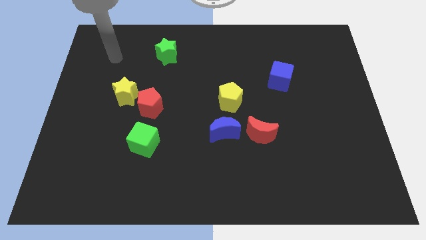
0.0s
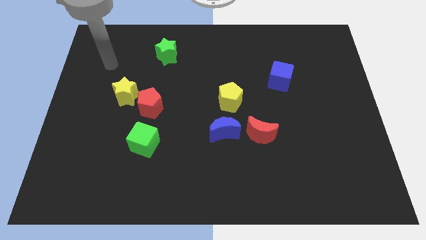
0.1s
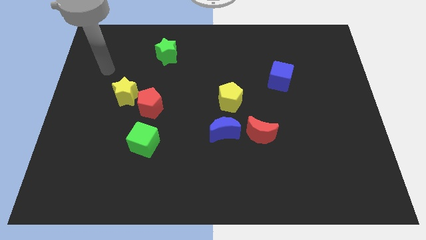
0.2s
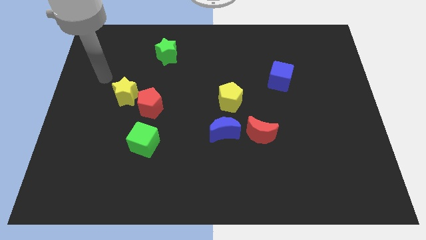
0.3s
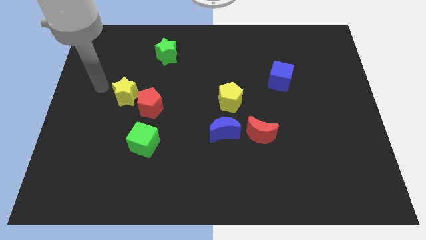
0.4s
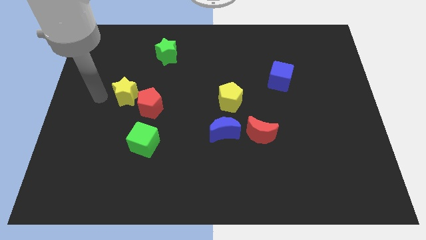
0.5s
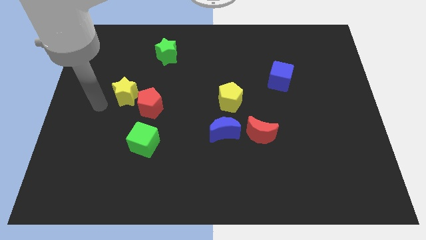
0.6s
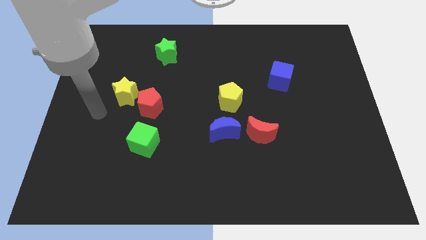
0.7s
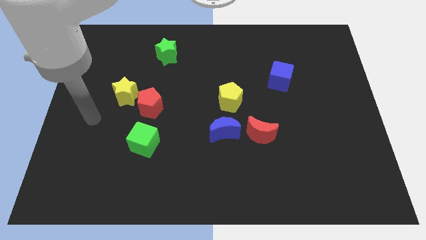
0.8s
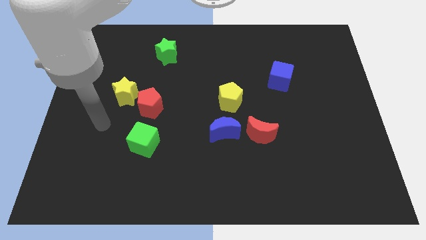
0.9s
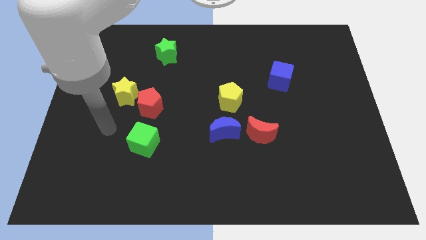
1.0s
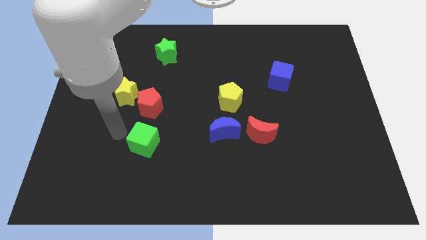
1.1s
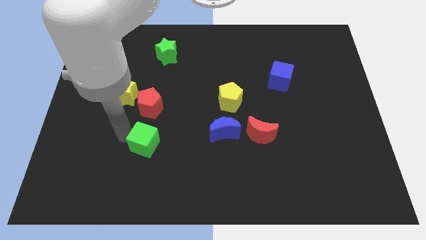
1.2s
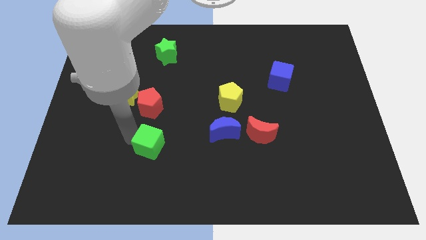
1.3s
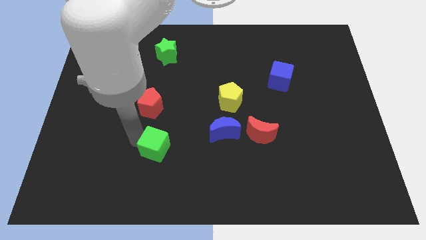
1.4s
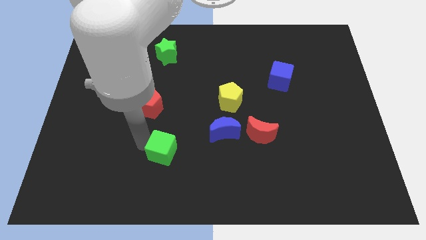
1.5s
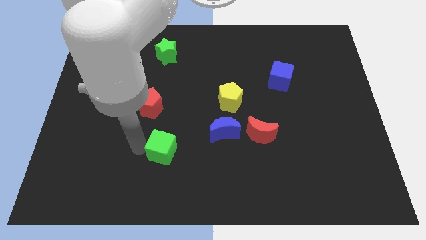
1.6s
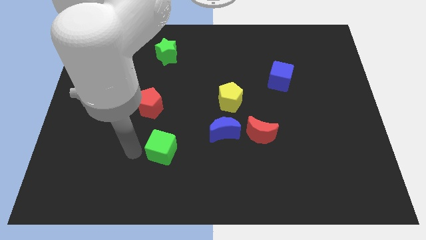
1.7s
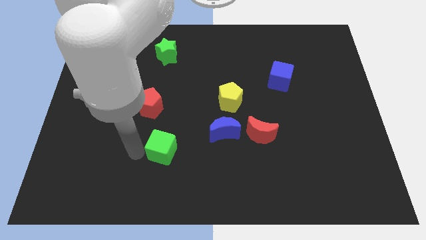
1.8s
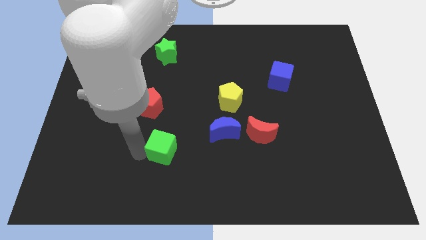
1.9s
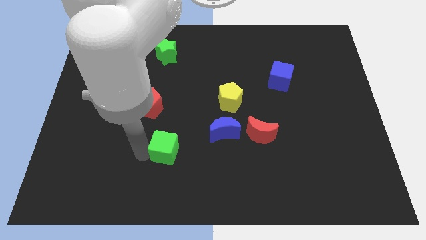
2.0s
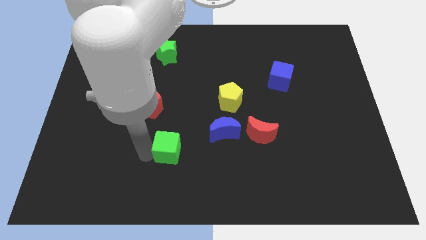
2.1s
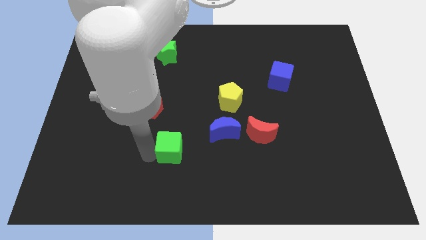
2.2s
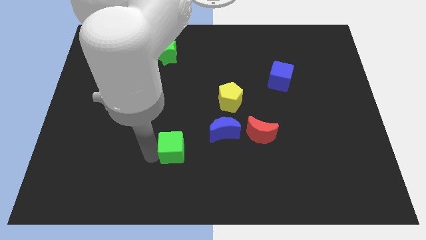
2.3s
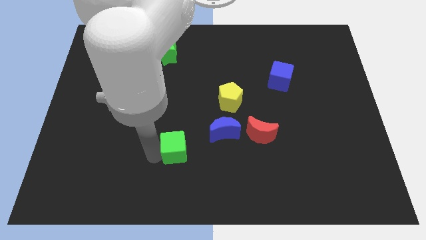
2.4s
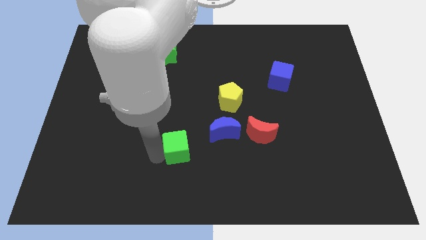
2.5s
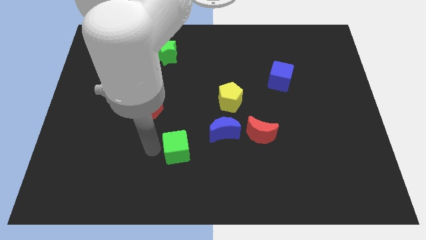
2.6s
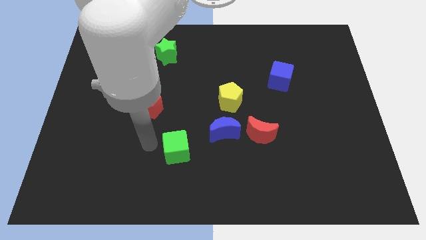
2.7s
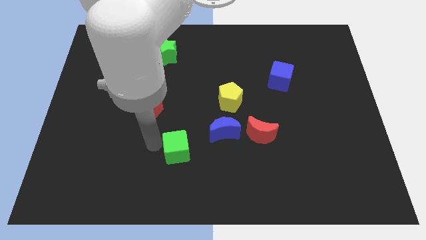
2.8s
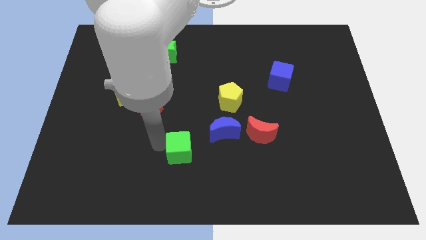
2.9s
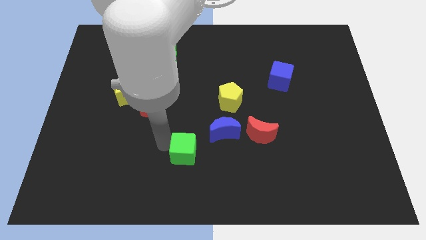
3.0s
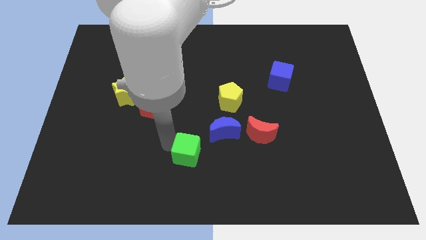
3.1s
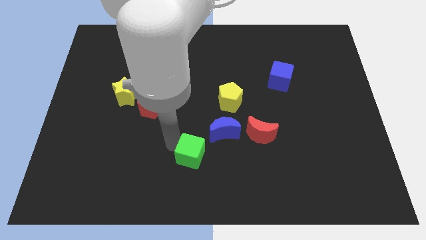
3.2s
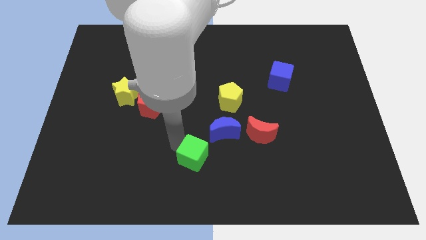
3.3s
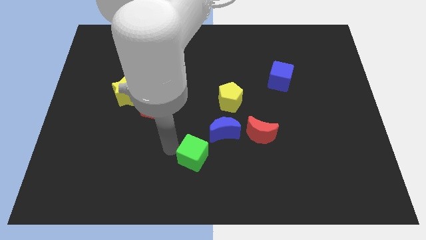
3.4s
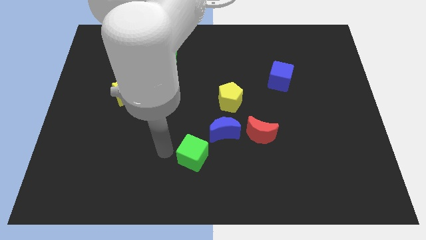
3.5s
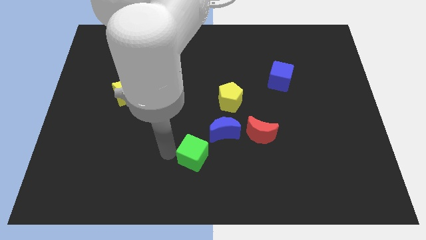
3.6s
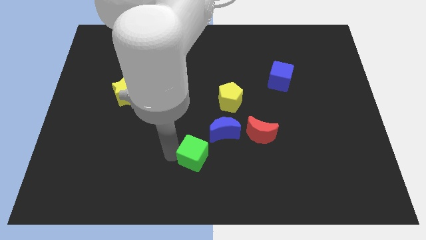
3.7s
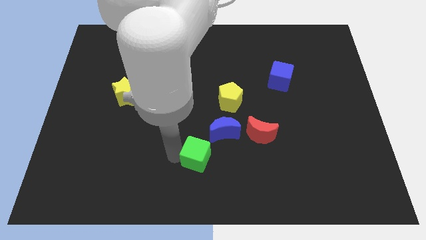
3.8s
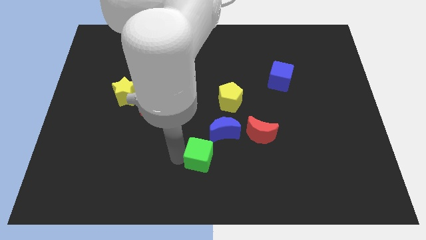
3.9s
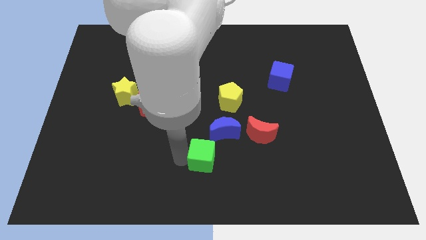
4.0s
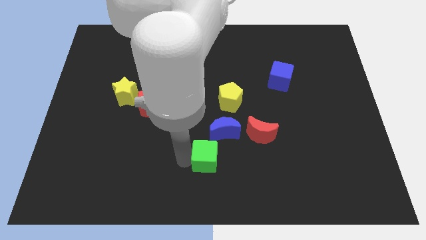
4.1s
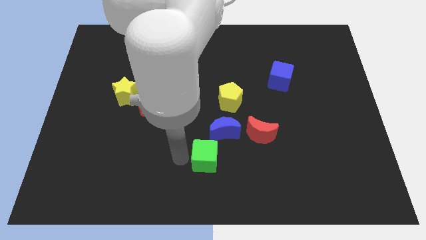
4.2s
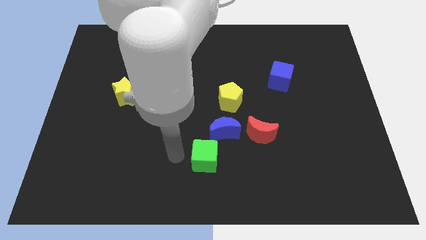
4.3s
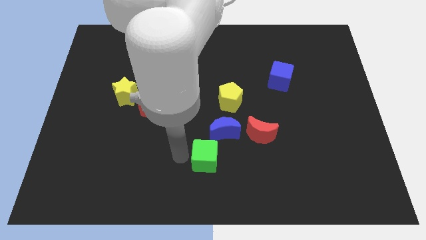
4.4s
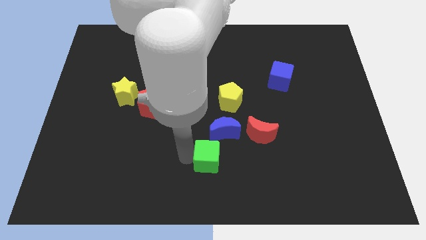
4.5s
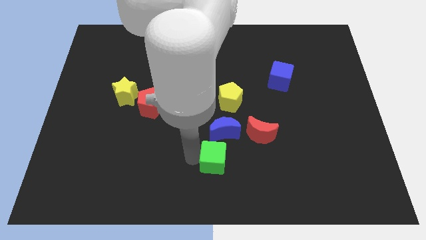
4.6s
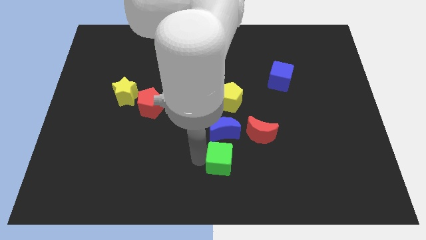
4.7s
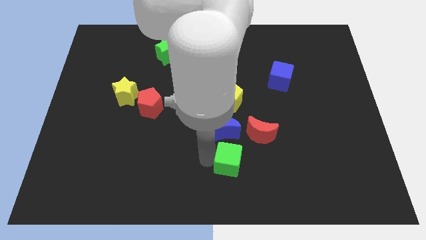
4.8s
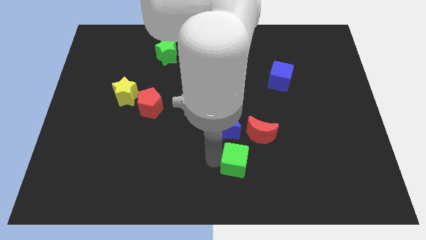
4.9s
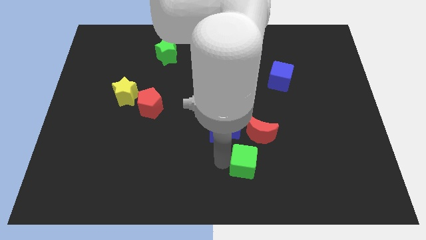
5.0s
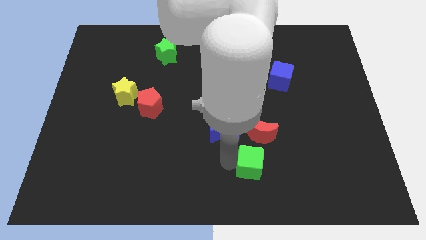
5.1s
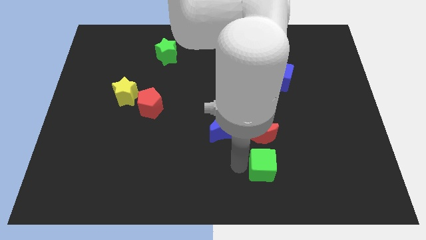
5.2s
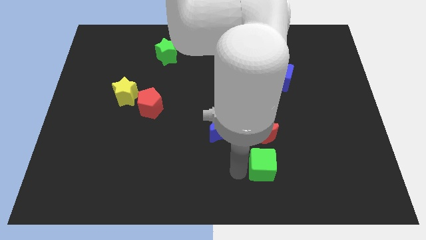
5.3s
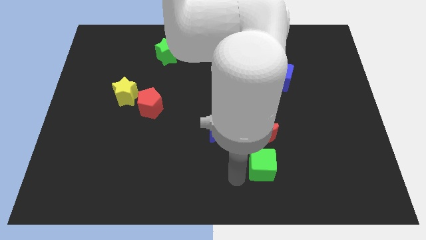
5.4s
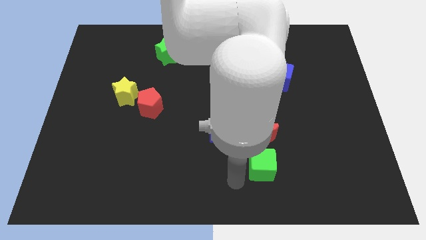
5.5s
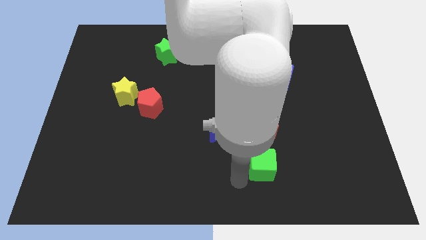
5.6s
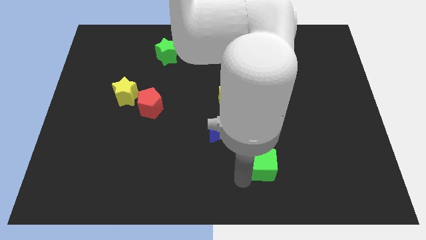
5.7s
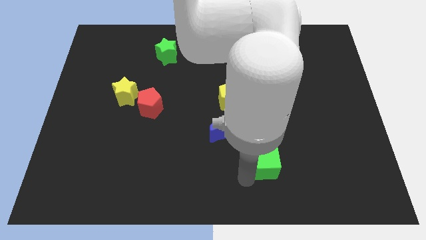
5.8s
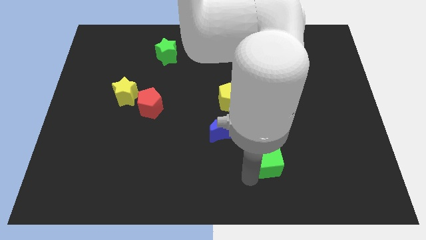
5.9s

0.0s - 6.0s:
move the green cube to the bottom right of the red moon

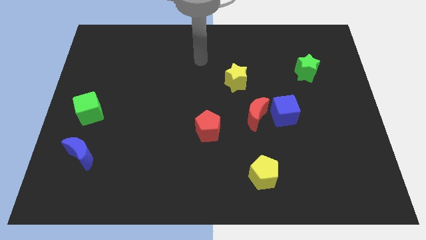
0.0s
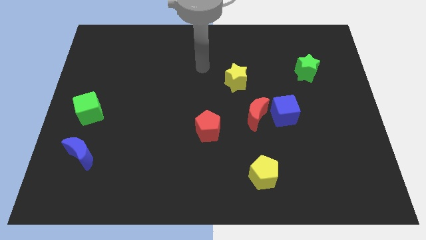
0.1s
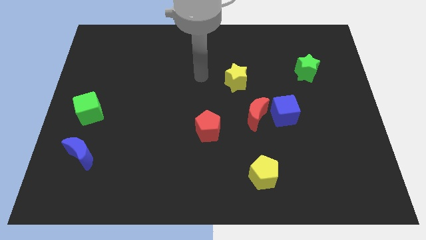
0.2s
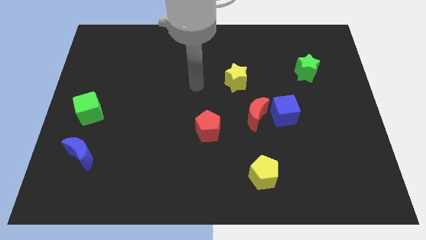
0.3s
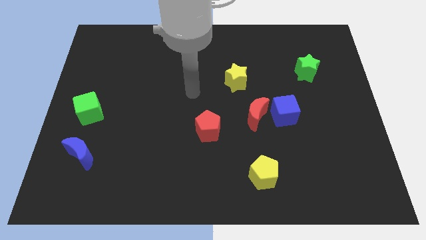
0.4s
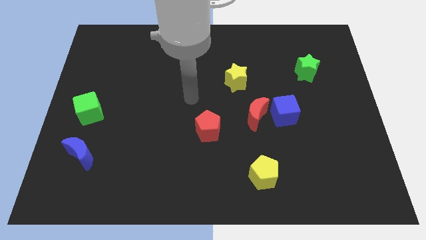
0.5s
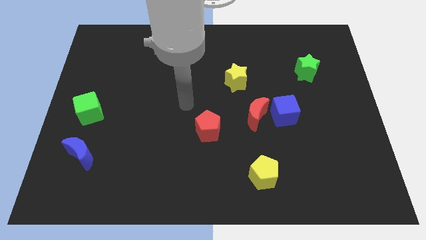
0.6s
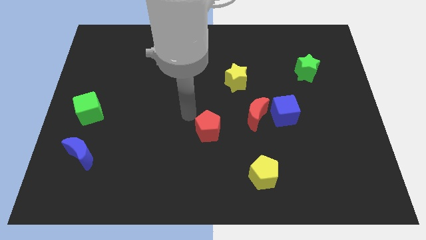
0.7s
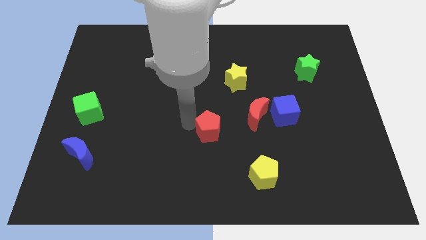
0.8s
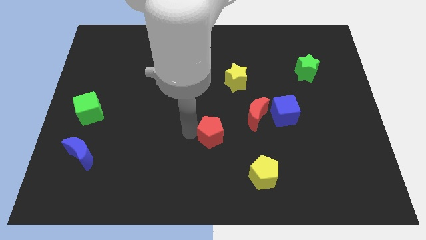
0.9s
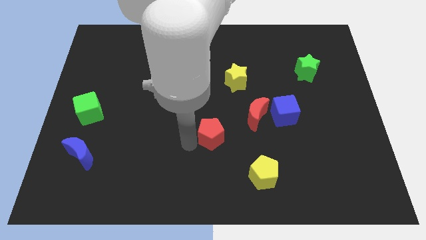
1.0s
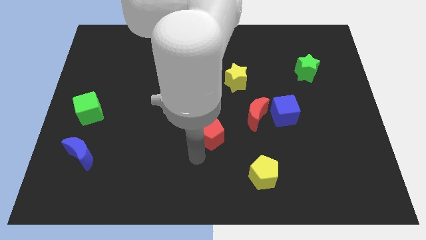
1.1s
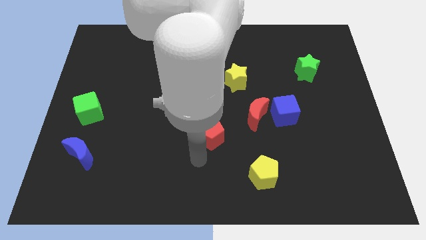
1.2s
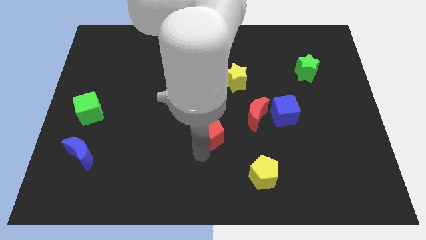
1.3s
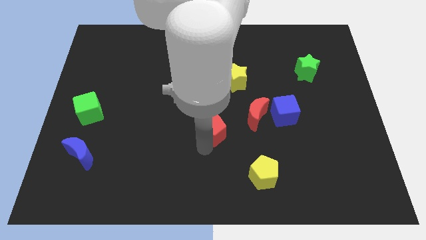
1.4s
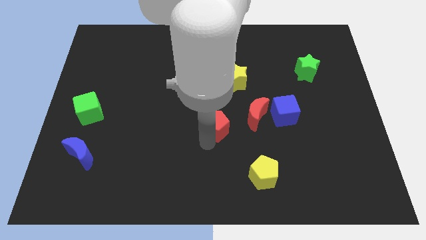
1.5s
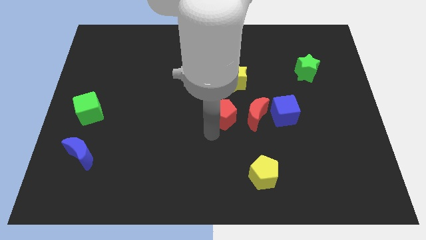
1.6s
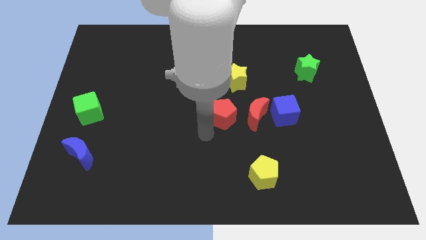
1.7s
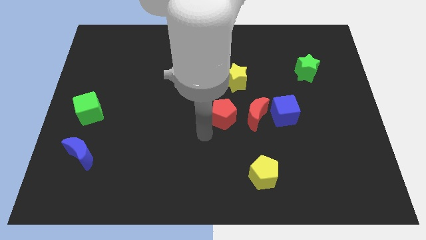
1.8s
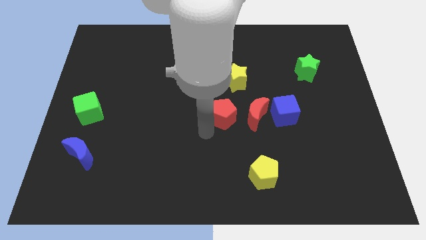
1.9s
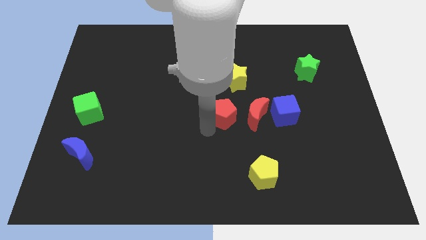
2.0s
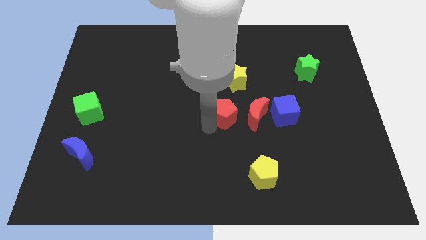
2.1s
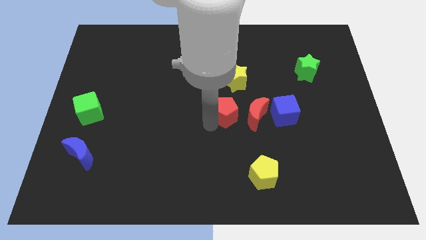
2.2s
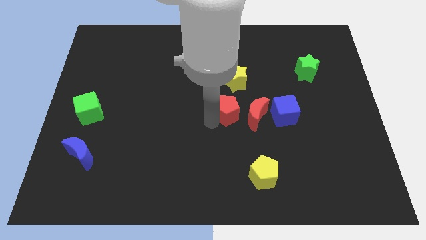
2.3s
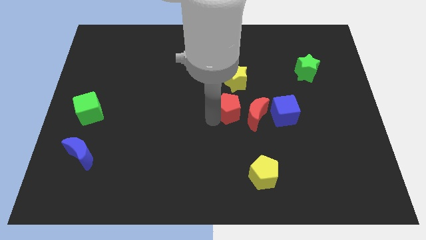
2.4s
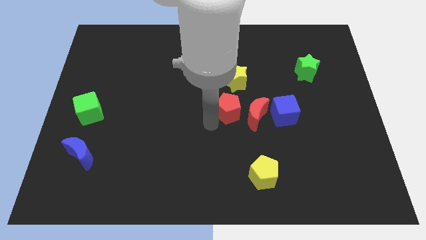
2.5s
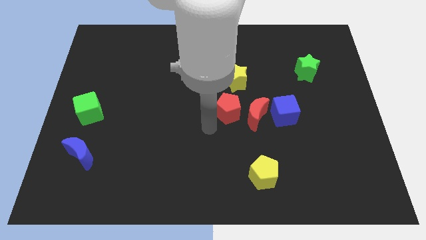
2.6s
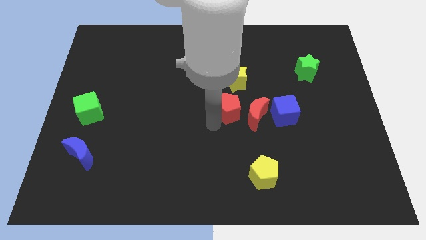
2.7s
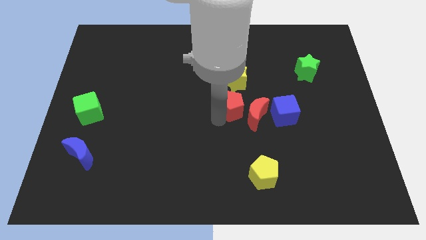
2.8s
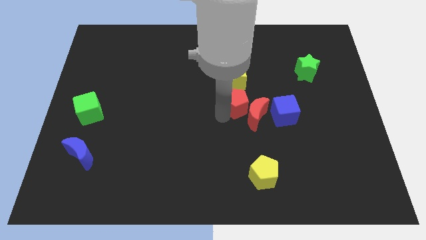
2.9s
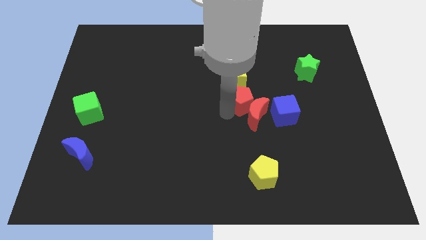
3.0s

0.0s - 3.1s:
slide the red pentagon to the top of the red moon
